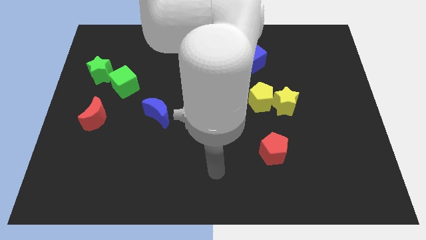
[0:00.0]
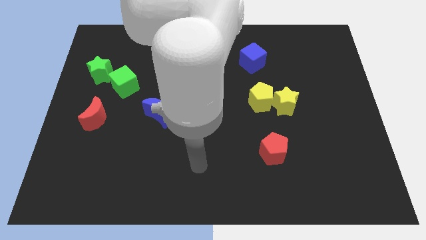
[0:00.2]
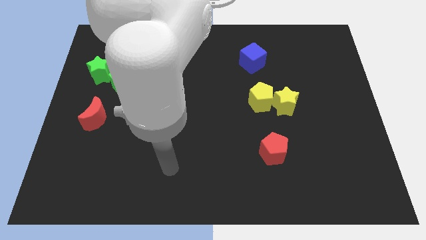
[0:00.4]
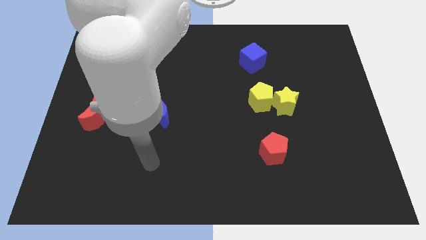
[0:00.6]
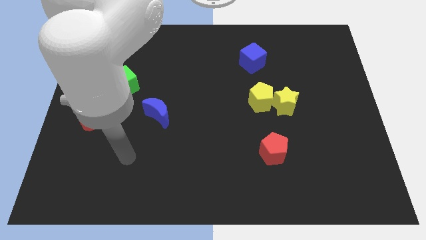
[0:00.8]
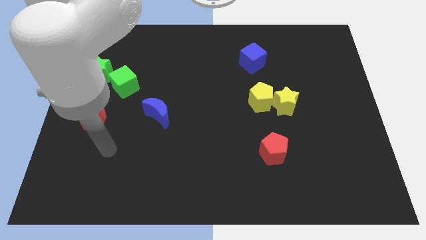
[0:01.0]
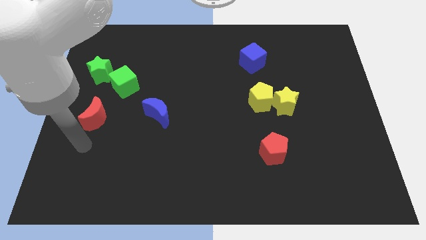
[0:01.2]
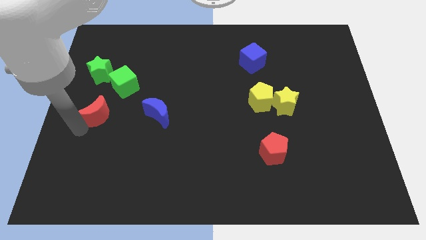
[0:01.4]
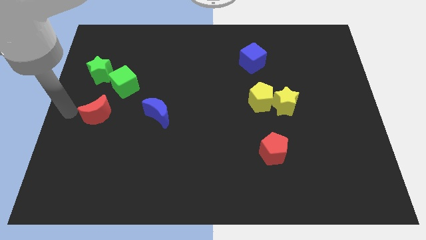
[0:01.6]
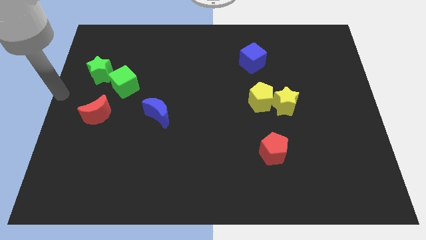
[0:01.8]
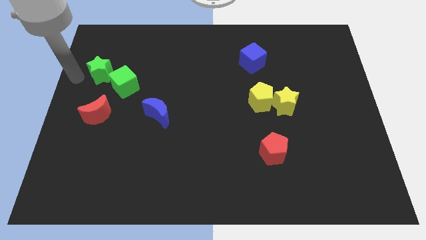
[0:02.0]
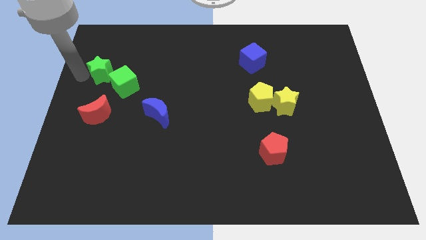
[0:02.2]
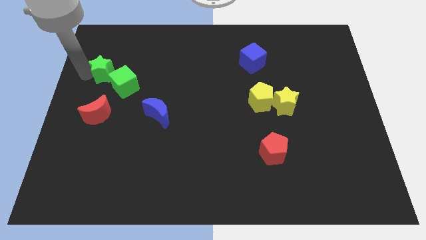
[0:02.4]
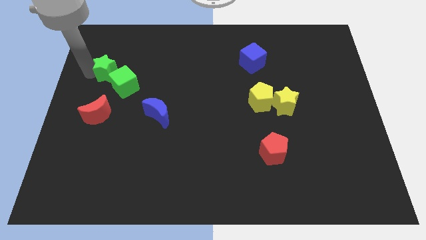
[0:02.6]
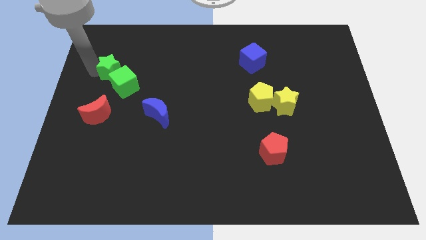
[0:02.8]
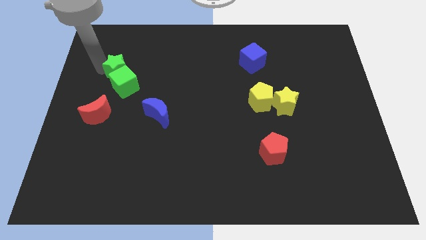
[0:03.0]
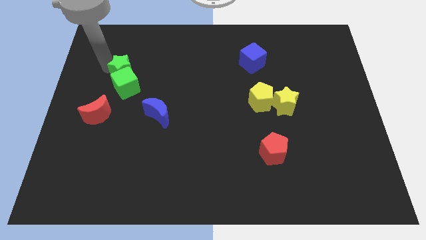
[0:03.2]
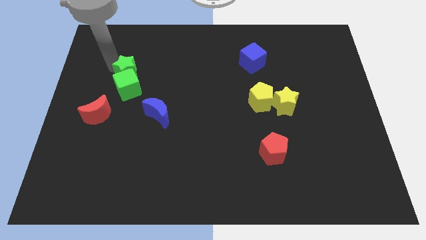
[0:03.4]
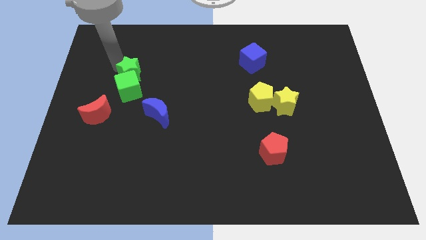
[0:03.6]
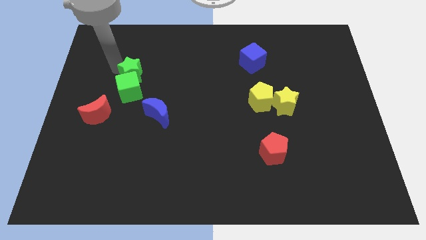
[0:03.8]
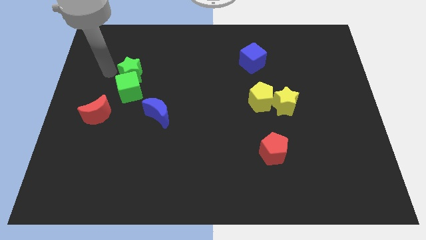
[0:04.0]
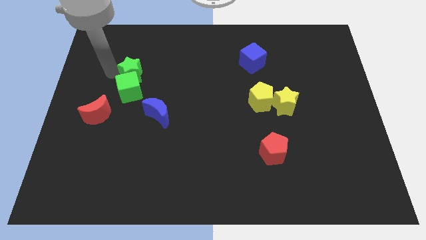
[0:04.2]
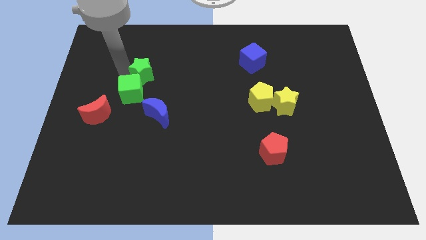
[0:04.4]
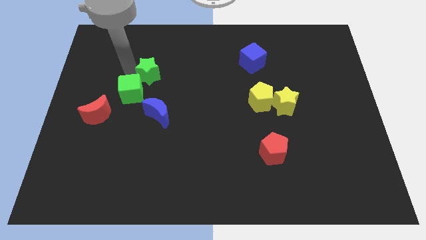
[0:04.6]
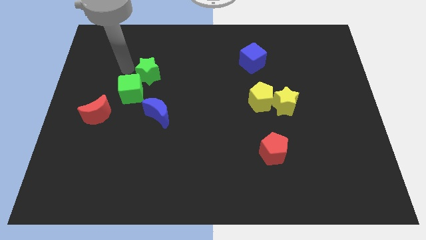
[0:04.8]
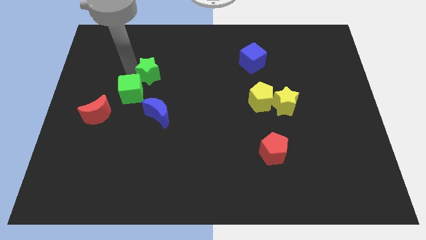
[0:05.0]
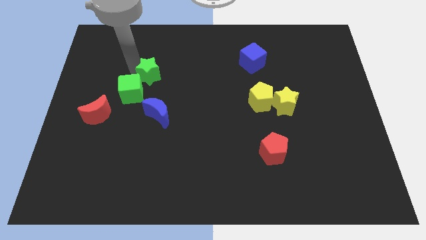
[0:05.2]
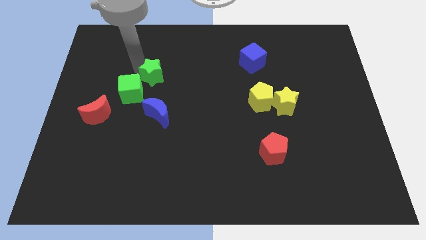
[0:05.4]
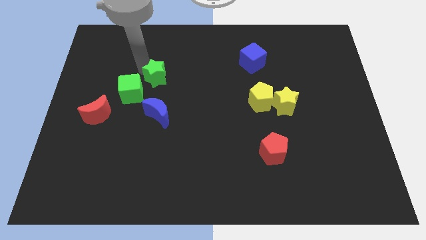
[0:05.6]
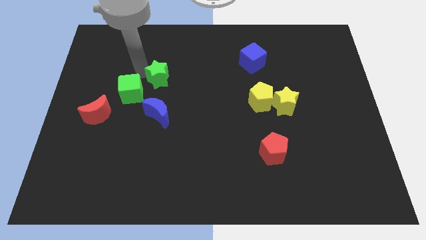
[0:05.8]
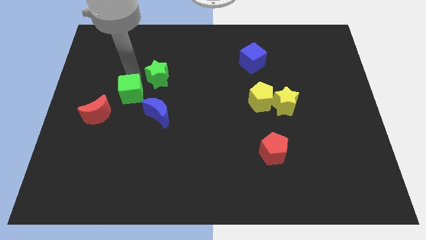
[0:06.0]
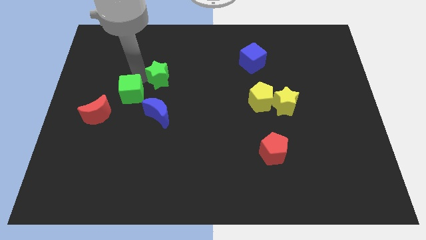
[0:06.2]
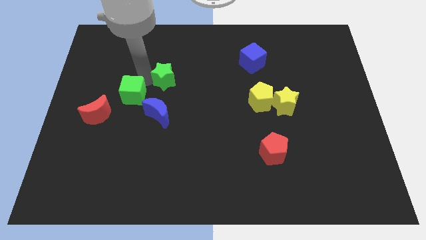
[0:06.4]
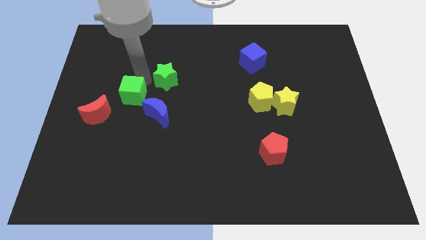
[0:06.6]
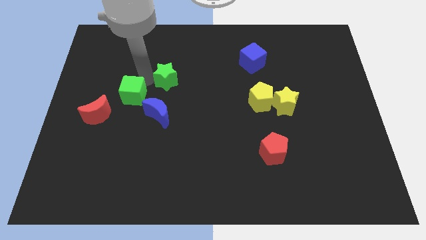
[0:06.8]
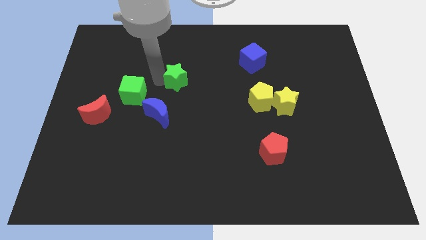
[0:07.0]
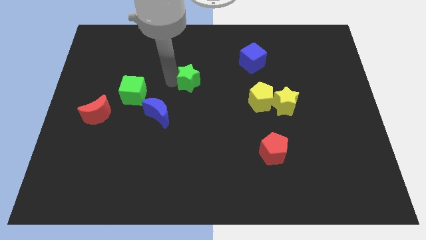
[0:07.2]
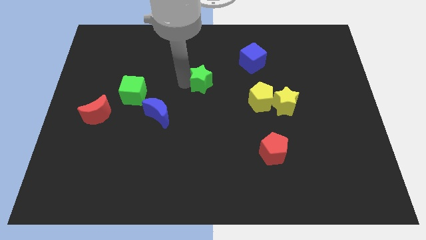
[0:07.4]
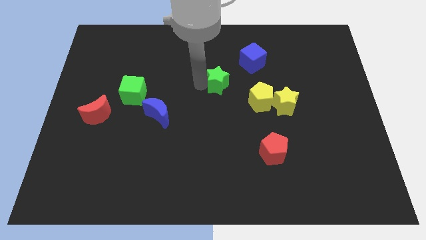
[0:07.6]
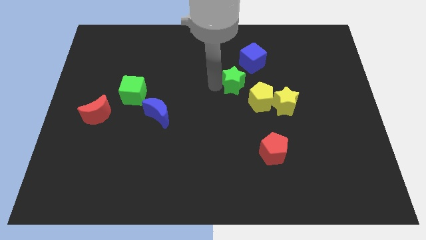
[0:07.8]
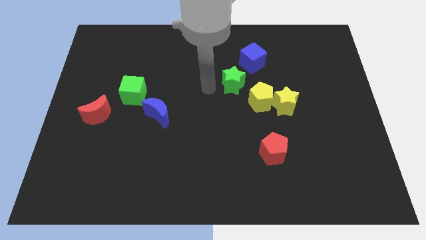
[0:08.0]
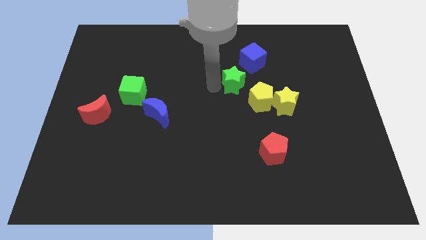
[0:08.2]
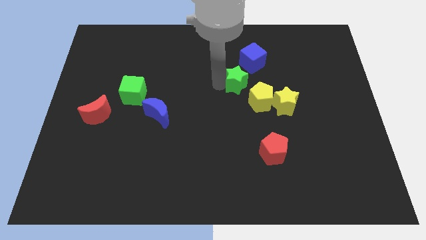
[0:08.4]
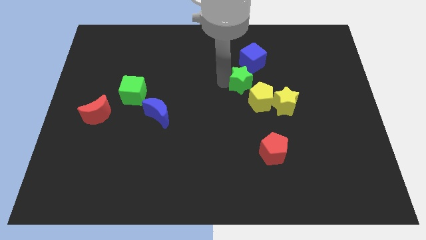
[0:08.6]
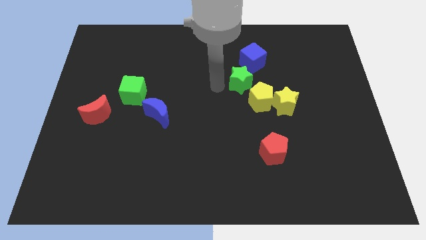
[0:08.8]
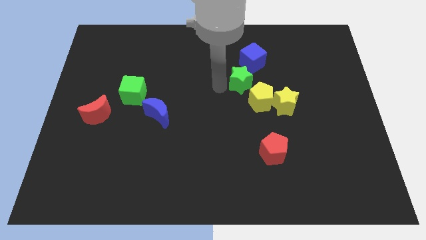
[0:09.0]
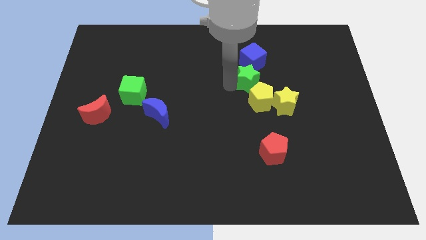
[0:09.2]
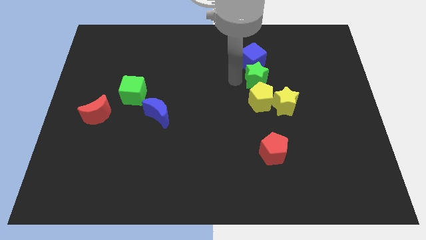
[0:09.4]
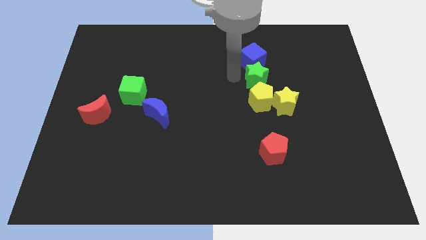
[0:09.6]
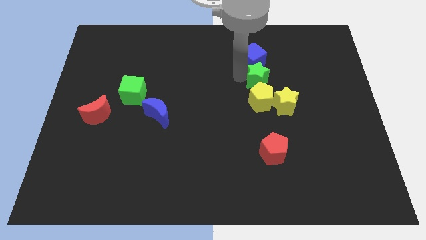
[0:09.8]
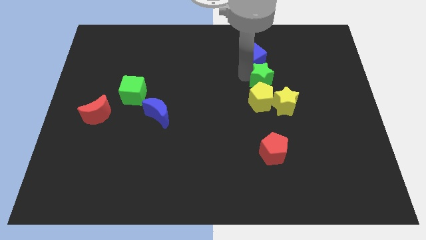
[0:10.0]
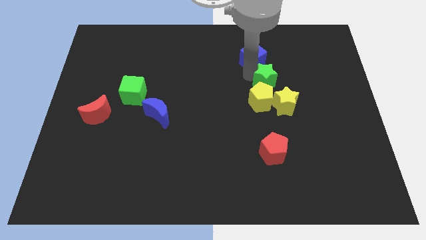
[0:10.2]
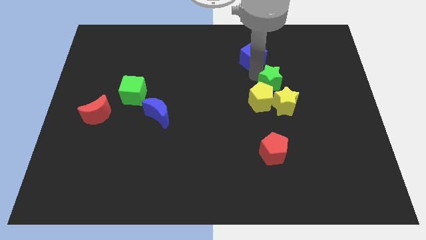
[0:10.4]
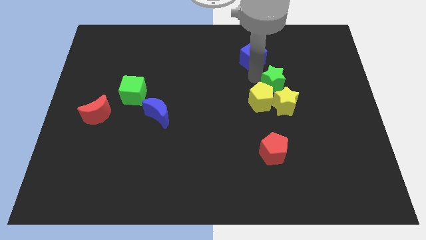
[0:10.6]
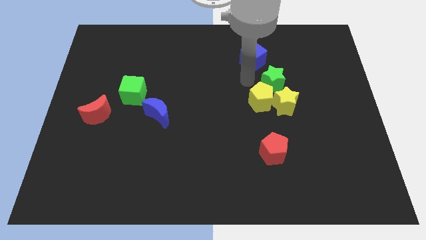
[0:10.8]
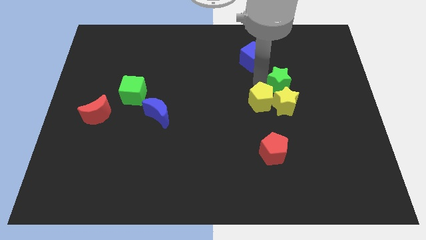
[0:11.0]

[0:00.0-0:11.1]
slide the green star to the top right side of the yellow star

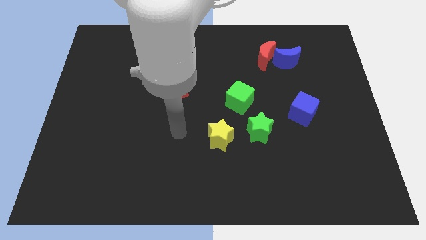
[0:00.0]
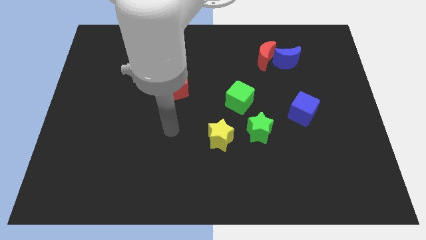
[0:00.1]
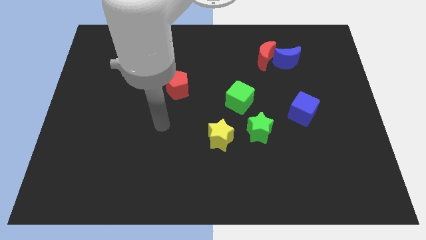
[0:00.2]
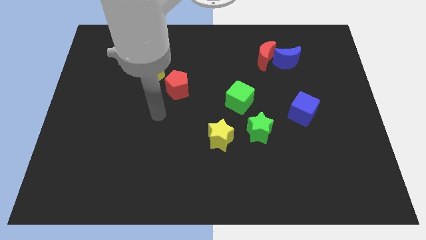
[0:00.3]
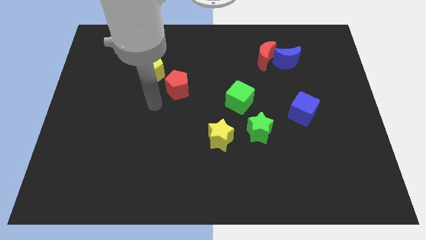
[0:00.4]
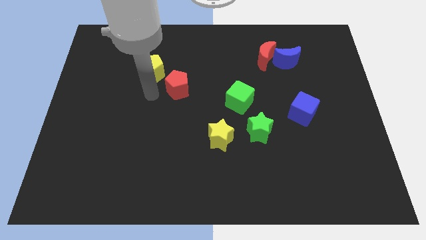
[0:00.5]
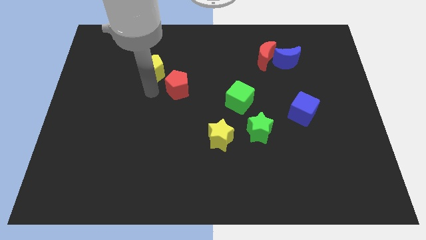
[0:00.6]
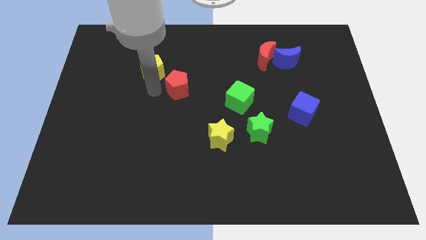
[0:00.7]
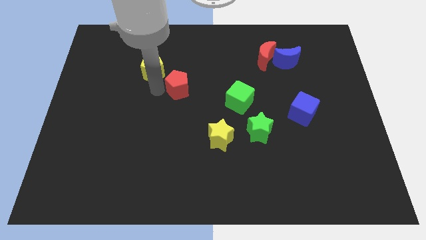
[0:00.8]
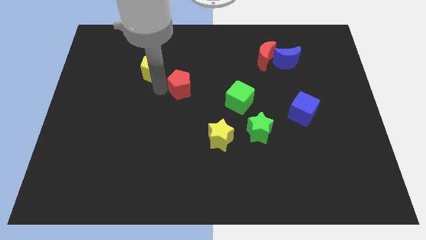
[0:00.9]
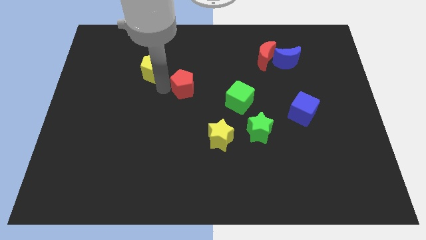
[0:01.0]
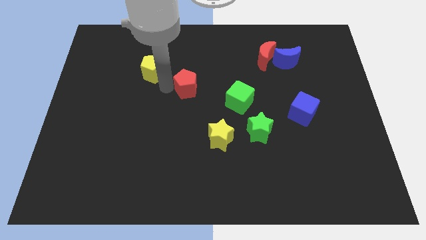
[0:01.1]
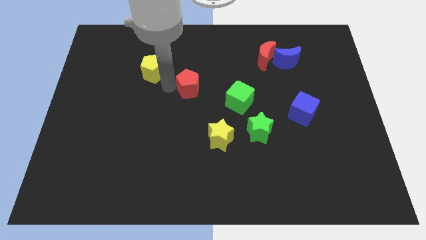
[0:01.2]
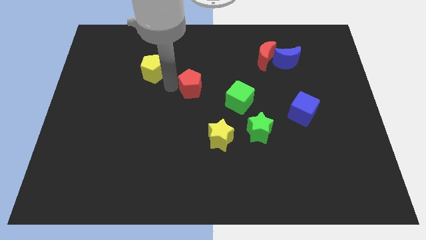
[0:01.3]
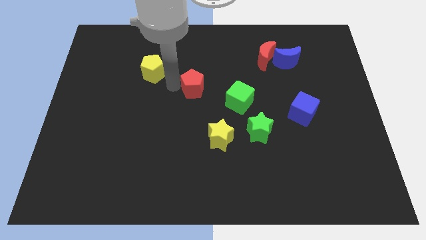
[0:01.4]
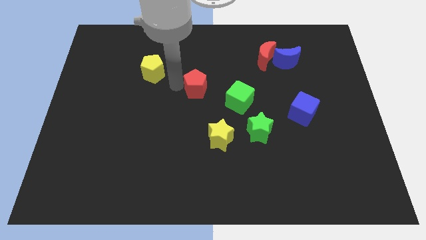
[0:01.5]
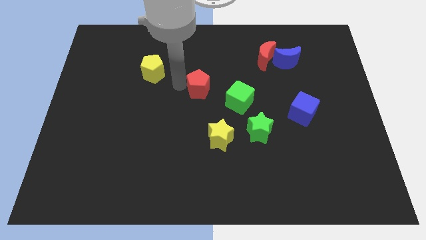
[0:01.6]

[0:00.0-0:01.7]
slide the red pentagon diagonally up and to the left of the green cube

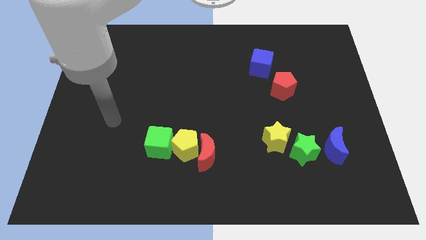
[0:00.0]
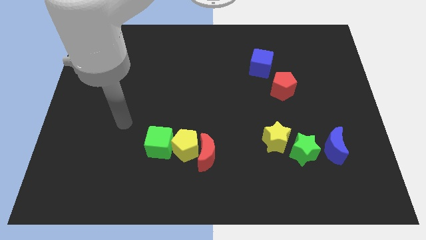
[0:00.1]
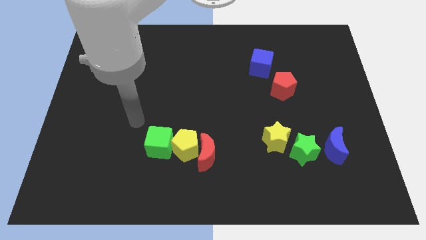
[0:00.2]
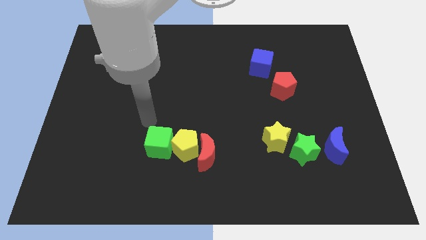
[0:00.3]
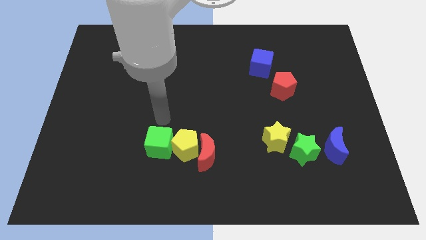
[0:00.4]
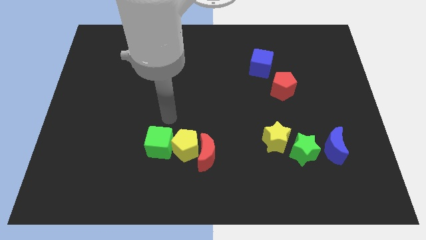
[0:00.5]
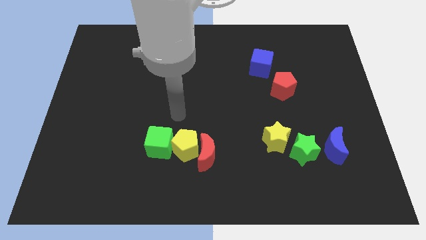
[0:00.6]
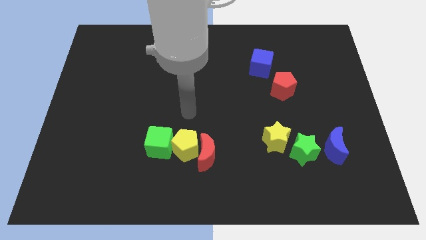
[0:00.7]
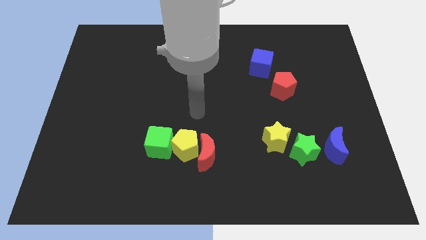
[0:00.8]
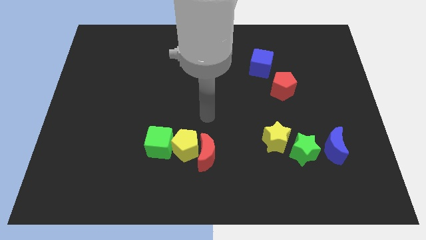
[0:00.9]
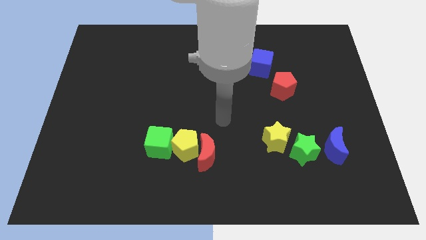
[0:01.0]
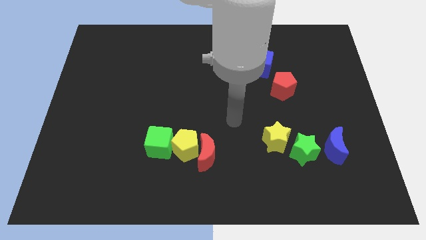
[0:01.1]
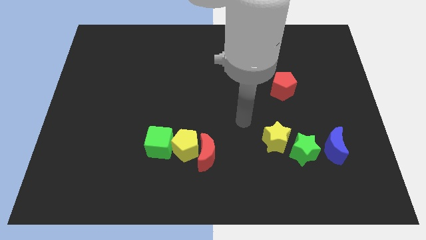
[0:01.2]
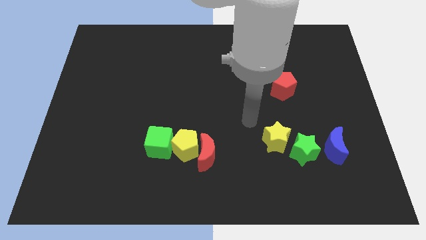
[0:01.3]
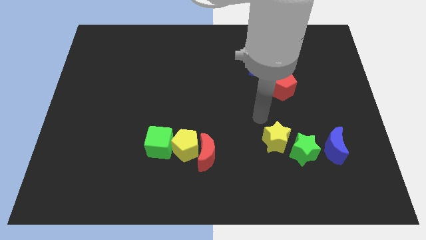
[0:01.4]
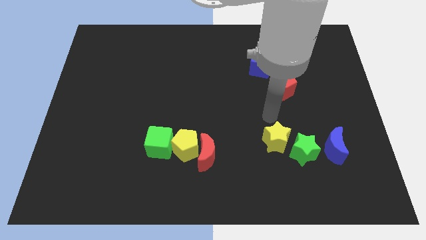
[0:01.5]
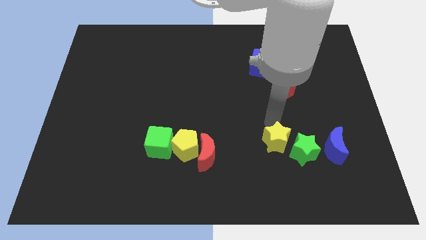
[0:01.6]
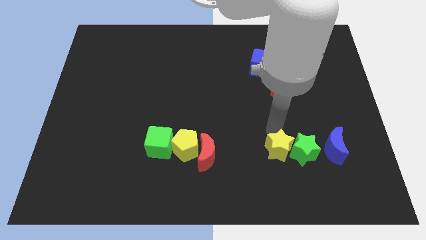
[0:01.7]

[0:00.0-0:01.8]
push the yellow star to the bottom left side of the green star
